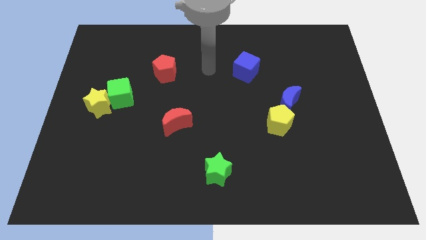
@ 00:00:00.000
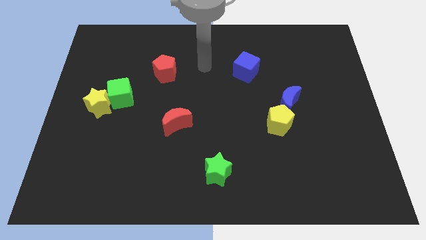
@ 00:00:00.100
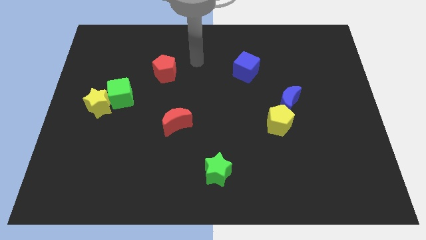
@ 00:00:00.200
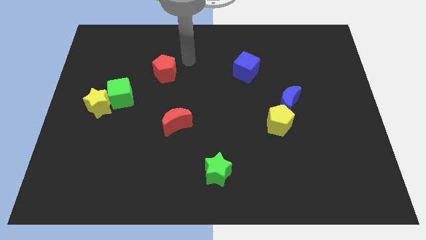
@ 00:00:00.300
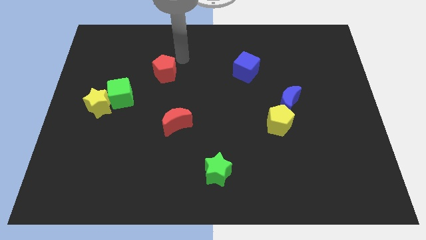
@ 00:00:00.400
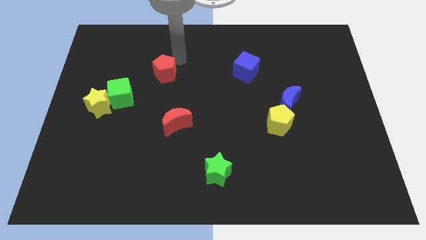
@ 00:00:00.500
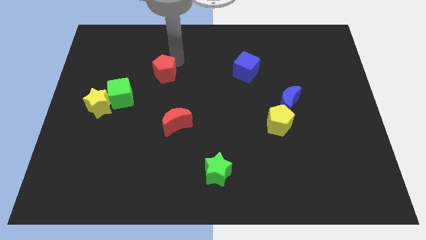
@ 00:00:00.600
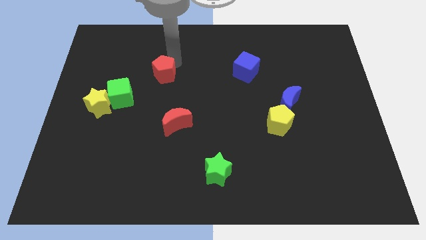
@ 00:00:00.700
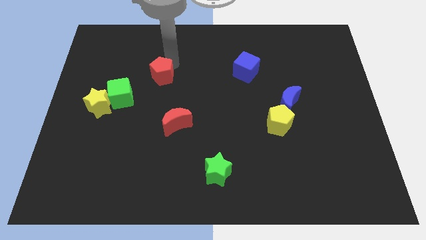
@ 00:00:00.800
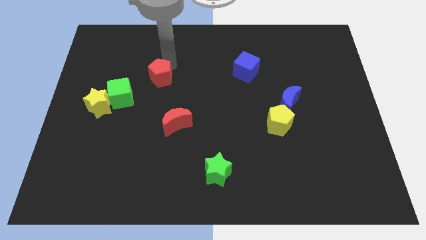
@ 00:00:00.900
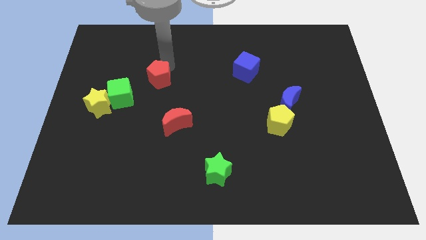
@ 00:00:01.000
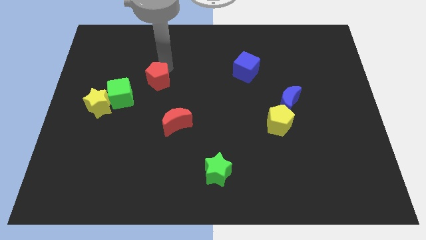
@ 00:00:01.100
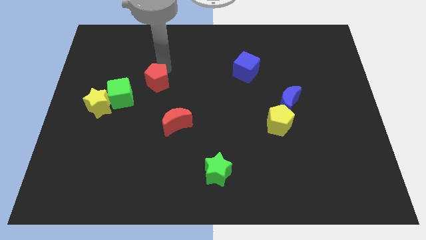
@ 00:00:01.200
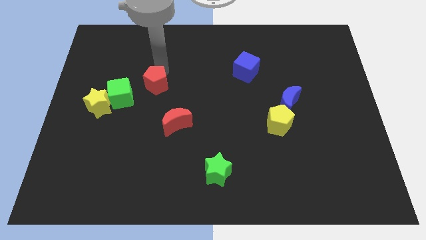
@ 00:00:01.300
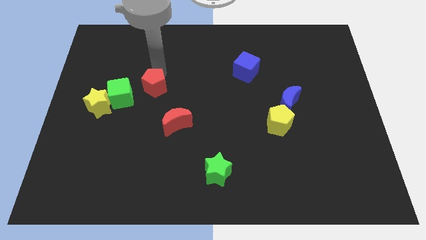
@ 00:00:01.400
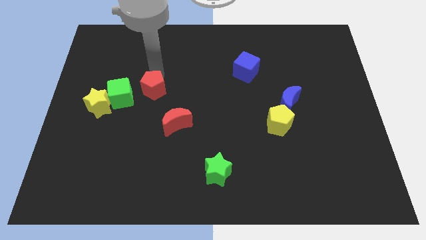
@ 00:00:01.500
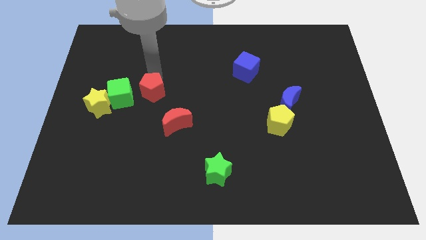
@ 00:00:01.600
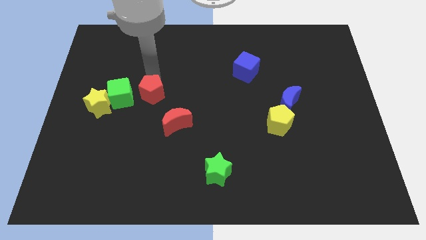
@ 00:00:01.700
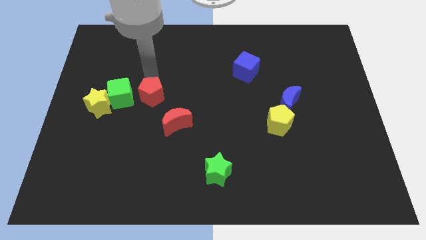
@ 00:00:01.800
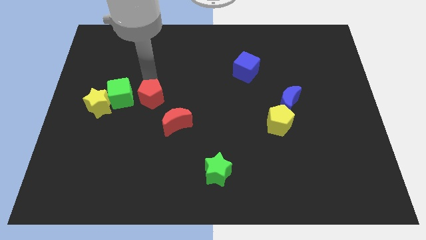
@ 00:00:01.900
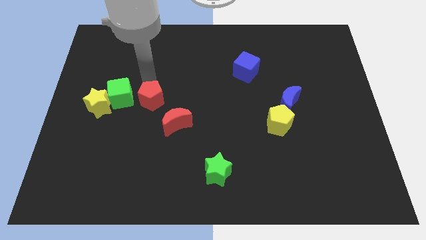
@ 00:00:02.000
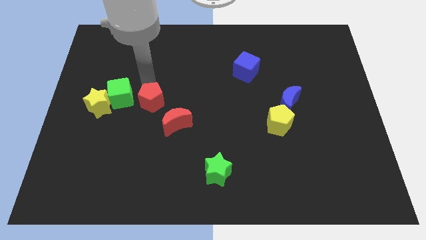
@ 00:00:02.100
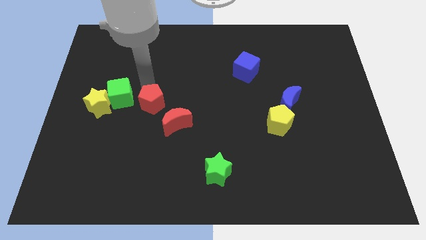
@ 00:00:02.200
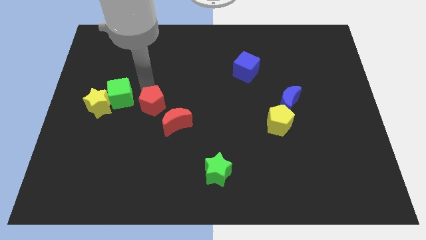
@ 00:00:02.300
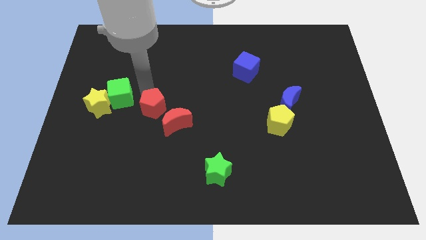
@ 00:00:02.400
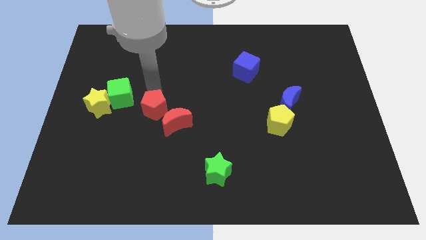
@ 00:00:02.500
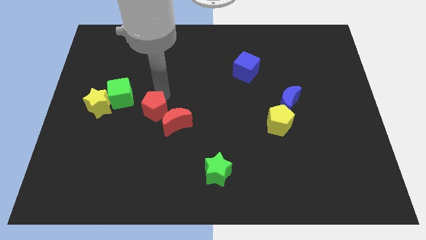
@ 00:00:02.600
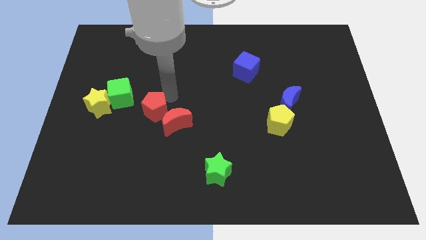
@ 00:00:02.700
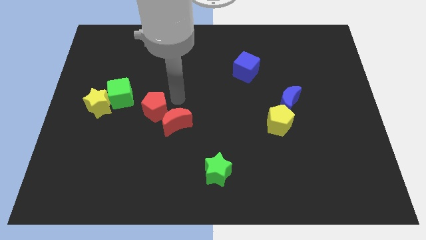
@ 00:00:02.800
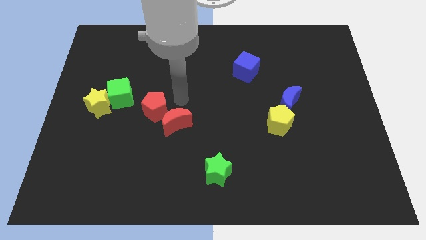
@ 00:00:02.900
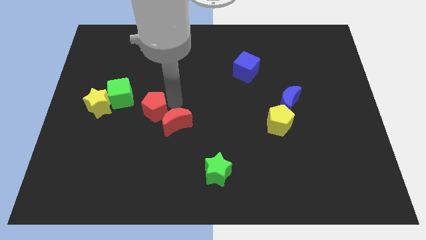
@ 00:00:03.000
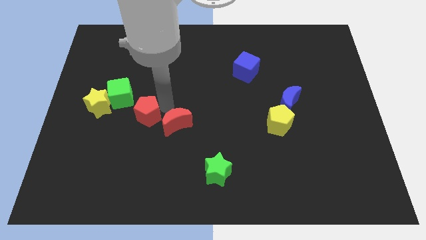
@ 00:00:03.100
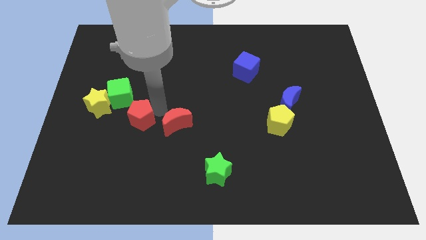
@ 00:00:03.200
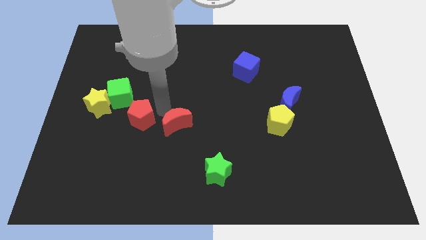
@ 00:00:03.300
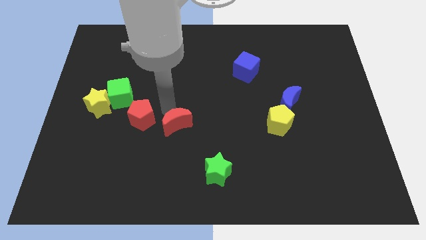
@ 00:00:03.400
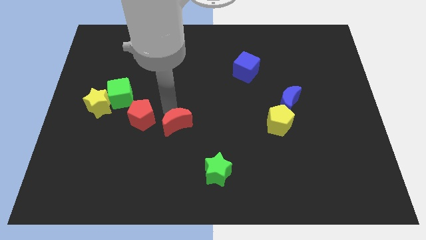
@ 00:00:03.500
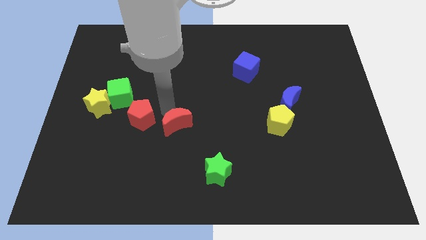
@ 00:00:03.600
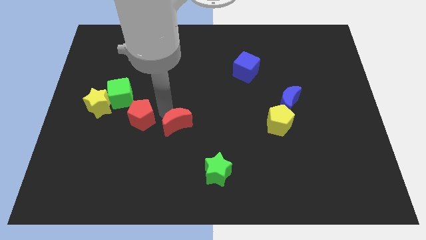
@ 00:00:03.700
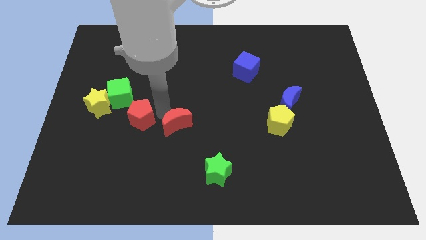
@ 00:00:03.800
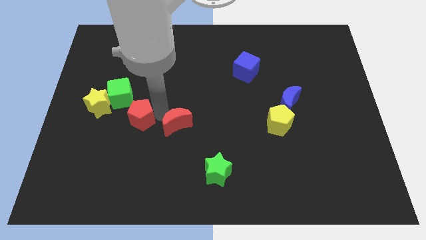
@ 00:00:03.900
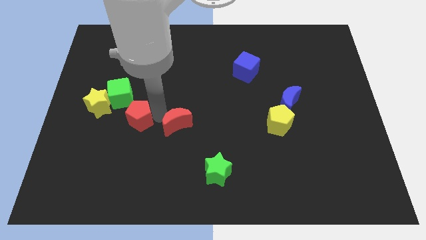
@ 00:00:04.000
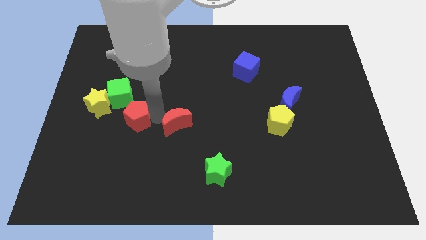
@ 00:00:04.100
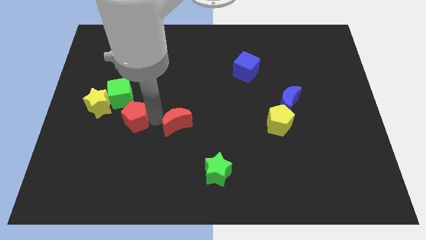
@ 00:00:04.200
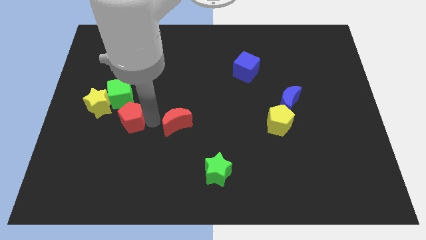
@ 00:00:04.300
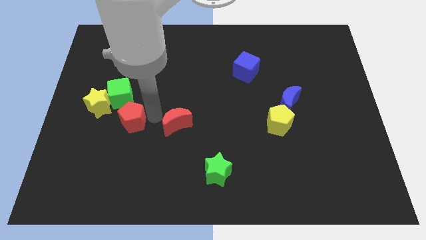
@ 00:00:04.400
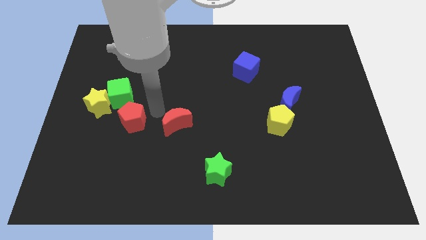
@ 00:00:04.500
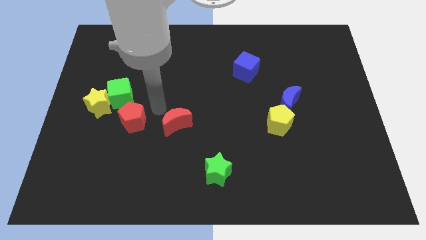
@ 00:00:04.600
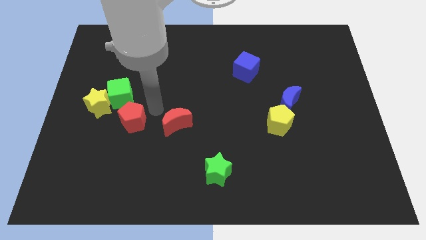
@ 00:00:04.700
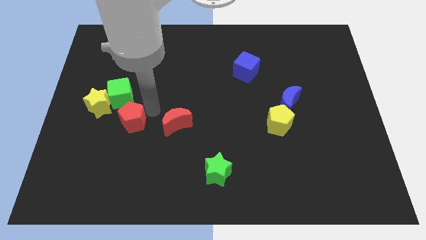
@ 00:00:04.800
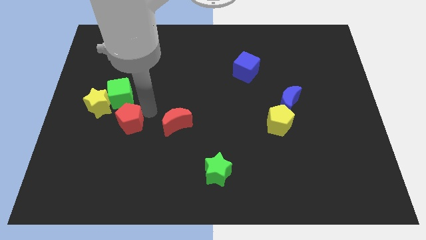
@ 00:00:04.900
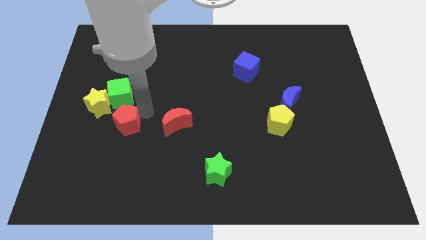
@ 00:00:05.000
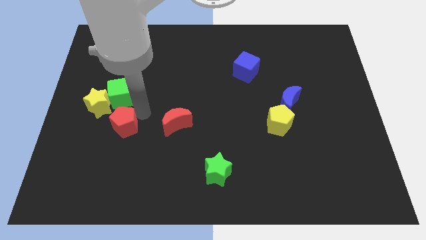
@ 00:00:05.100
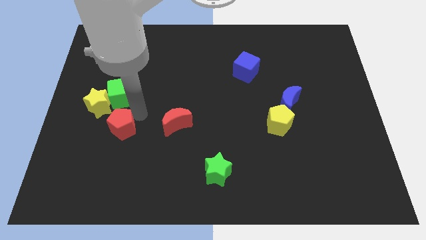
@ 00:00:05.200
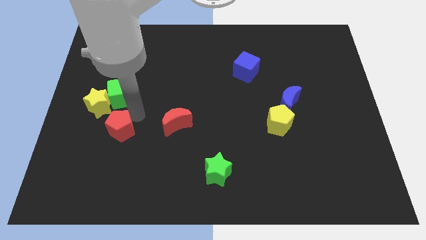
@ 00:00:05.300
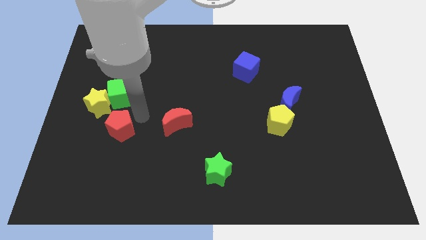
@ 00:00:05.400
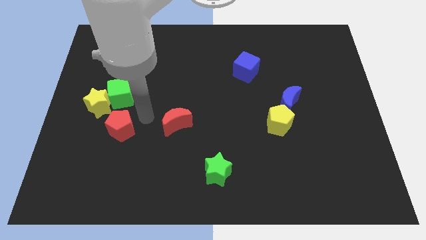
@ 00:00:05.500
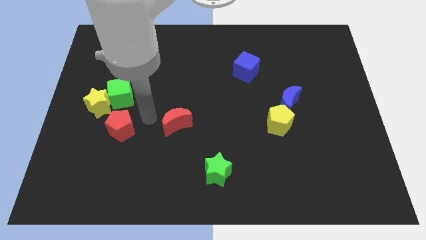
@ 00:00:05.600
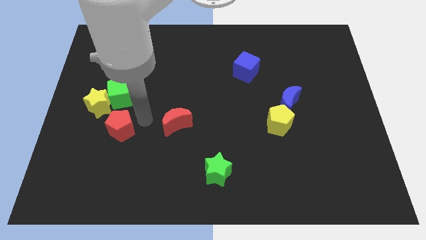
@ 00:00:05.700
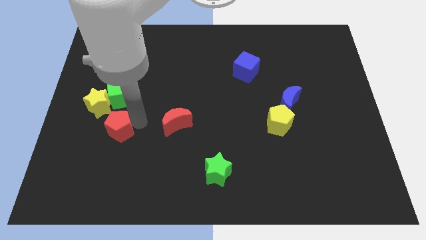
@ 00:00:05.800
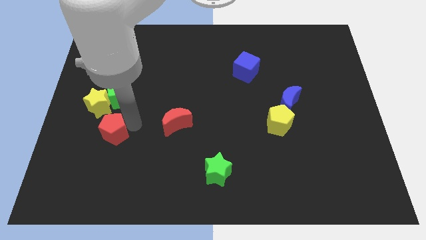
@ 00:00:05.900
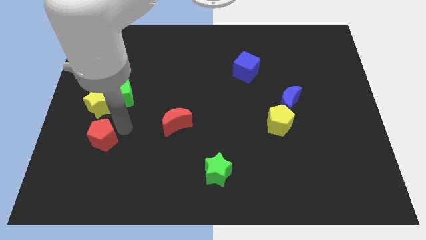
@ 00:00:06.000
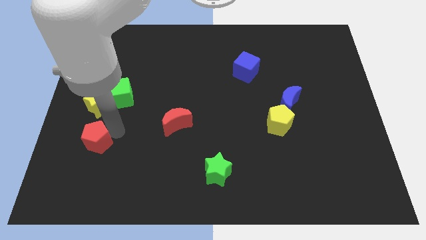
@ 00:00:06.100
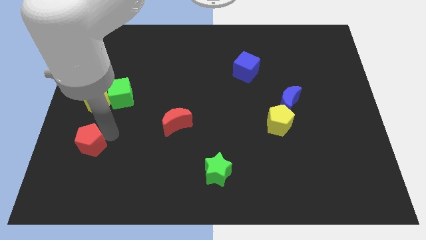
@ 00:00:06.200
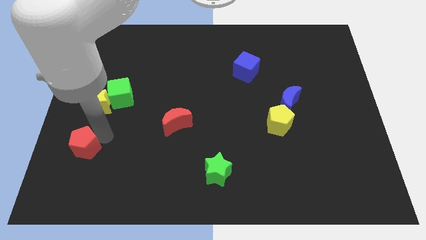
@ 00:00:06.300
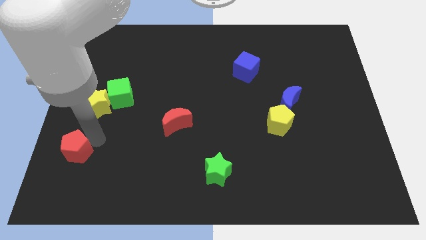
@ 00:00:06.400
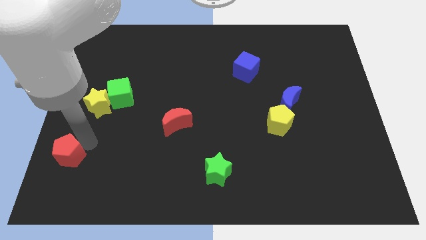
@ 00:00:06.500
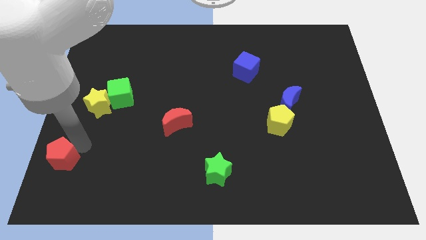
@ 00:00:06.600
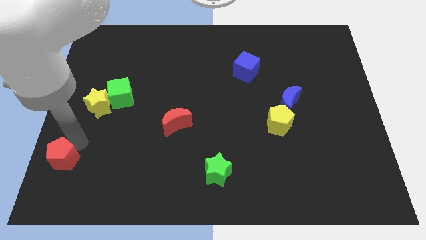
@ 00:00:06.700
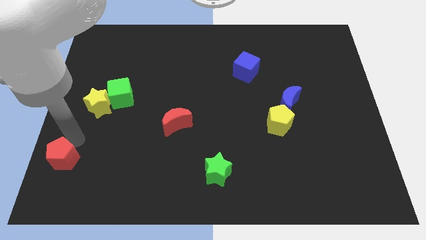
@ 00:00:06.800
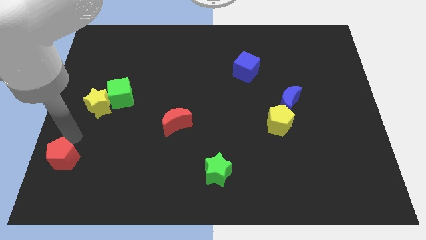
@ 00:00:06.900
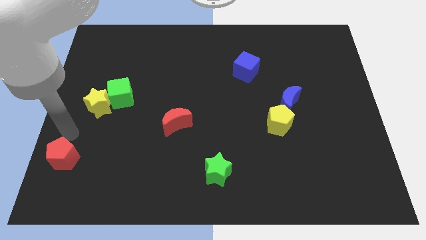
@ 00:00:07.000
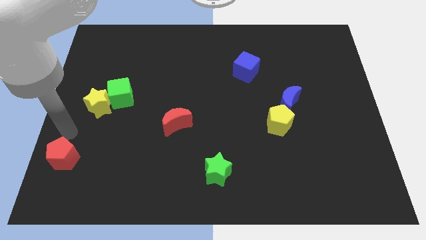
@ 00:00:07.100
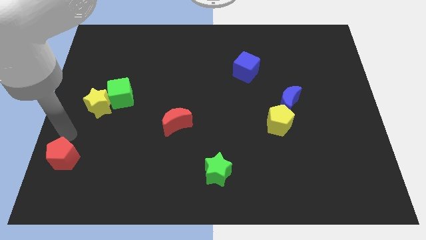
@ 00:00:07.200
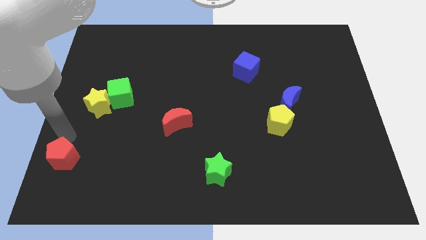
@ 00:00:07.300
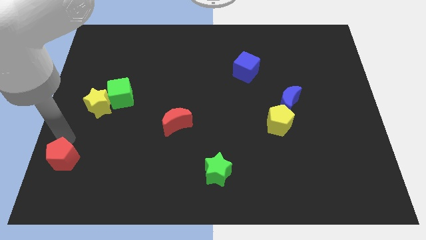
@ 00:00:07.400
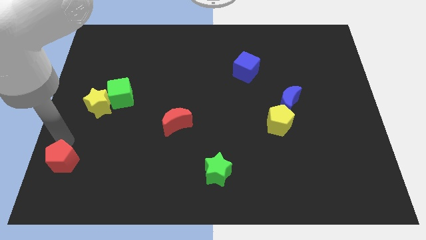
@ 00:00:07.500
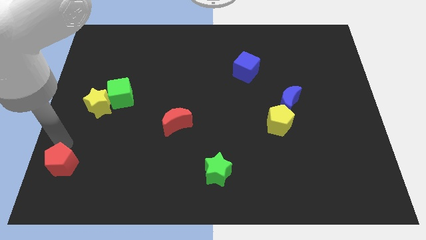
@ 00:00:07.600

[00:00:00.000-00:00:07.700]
move the red pentagon to the bottom left corner
